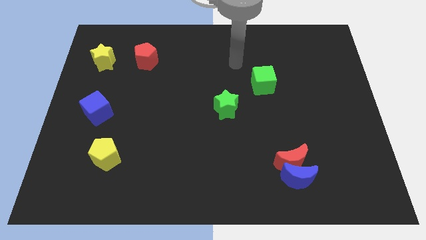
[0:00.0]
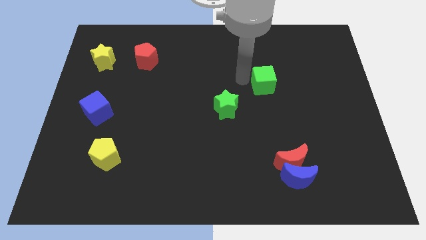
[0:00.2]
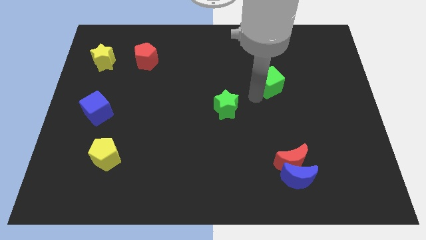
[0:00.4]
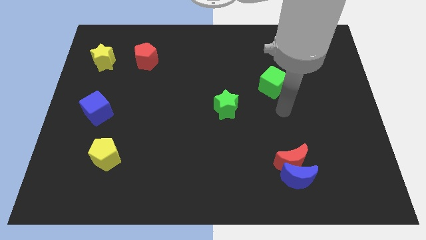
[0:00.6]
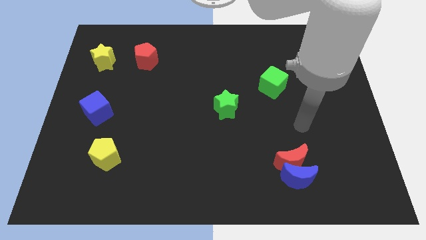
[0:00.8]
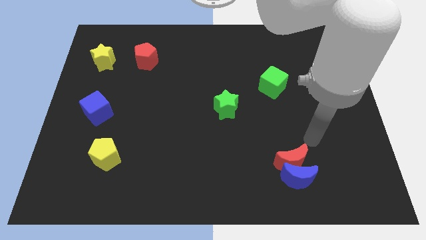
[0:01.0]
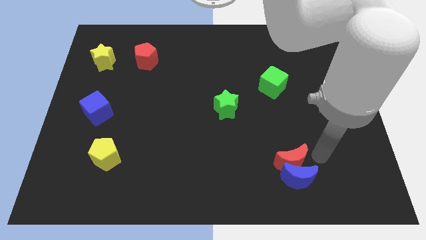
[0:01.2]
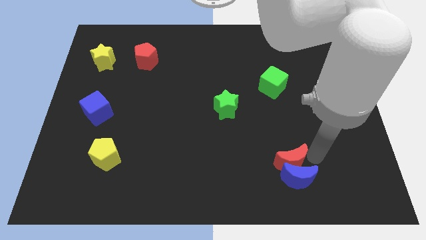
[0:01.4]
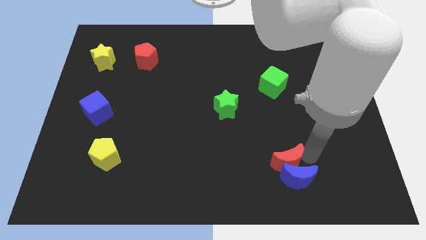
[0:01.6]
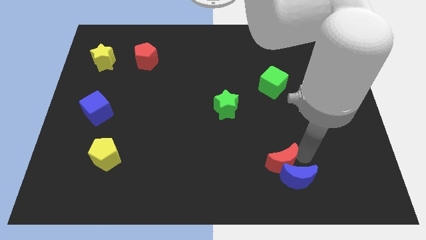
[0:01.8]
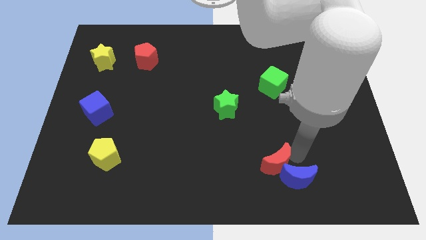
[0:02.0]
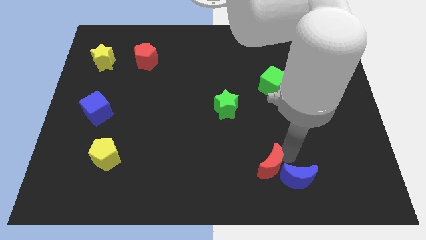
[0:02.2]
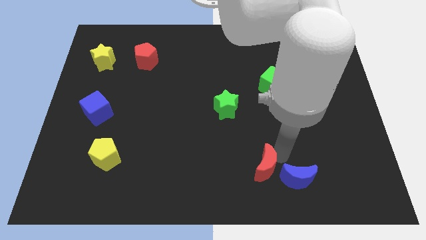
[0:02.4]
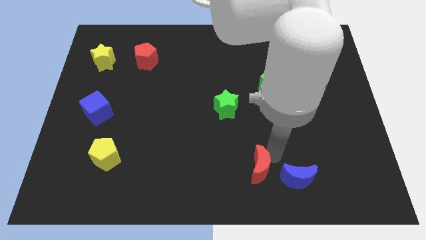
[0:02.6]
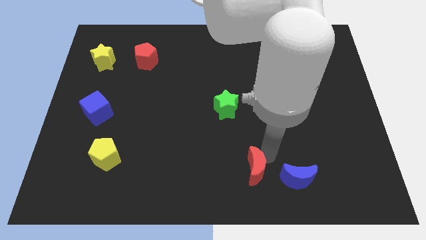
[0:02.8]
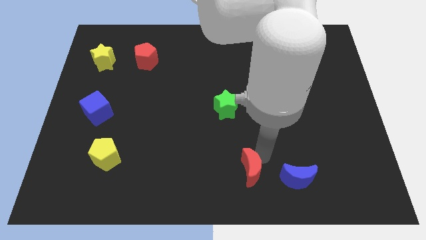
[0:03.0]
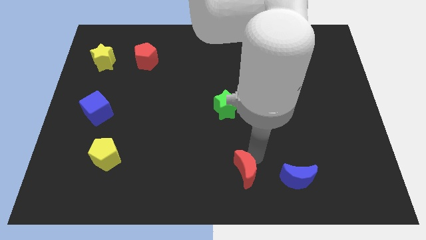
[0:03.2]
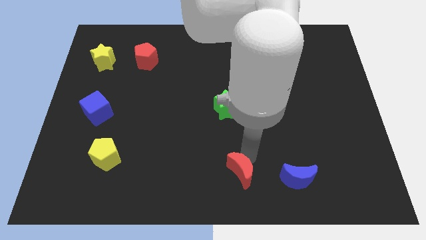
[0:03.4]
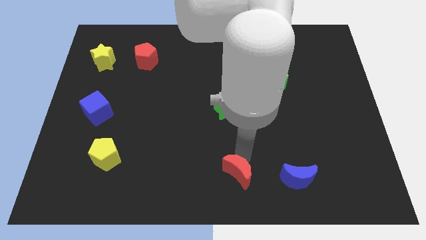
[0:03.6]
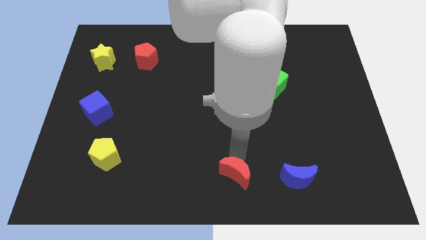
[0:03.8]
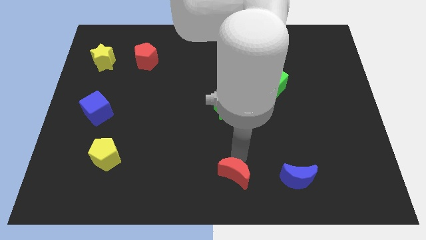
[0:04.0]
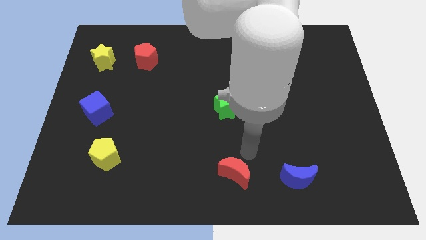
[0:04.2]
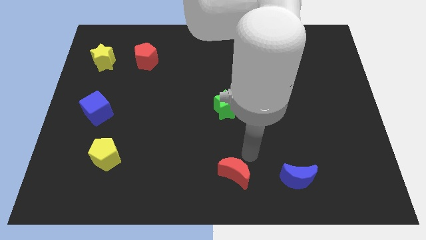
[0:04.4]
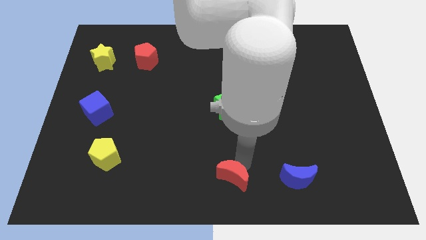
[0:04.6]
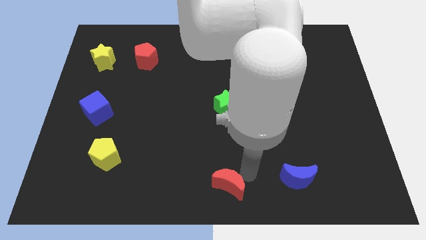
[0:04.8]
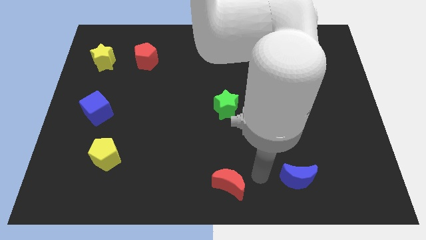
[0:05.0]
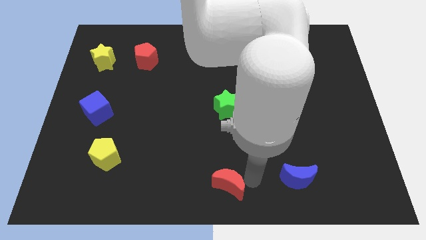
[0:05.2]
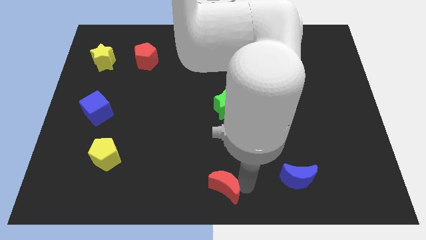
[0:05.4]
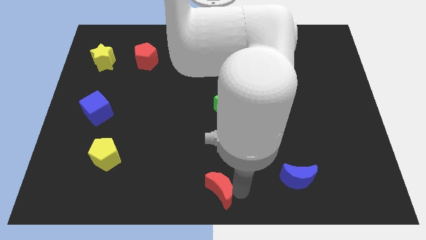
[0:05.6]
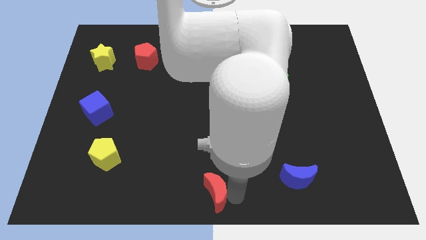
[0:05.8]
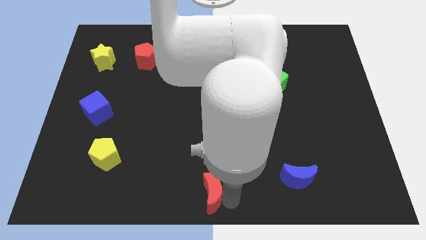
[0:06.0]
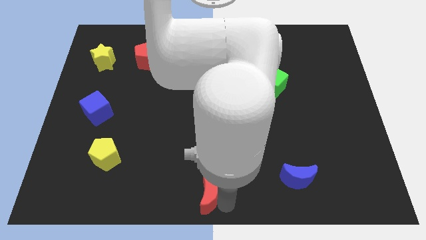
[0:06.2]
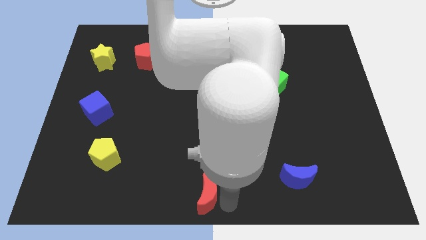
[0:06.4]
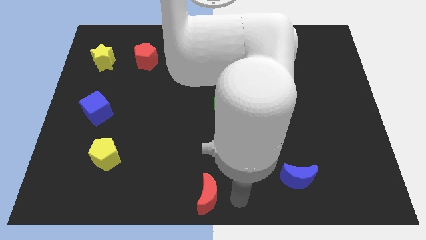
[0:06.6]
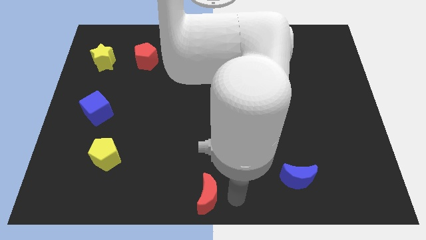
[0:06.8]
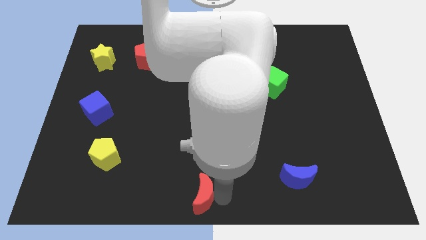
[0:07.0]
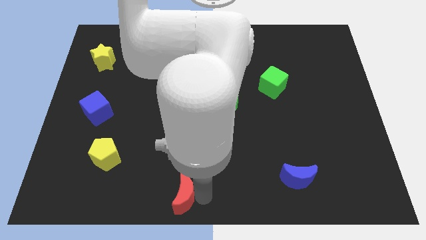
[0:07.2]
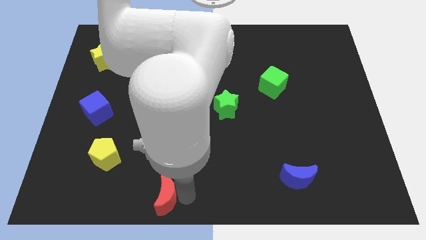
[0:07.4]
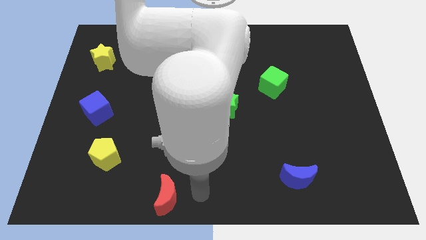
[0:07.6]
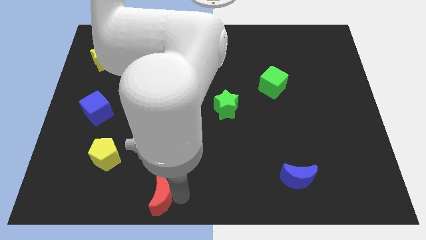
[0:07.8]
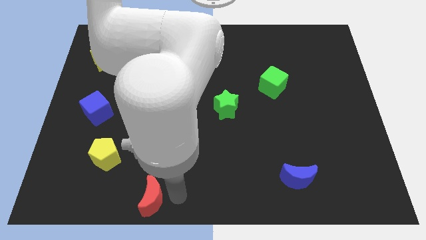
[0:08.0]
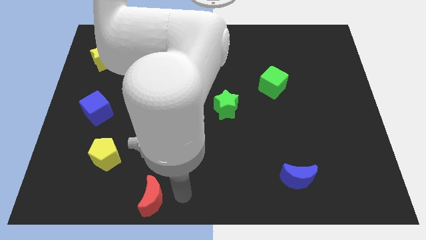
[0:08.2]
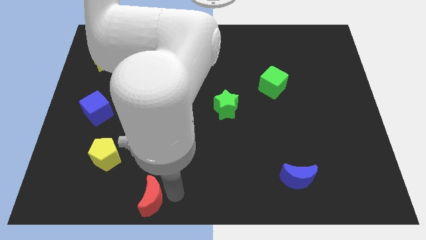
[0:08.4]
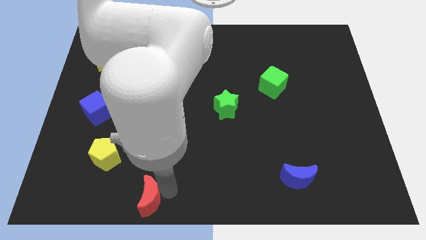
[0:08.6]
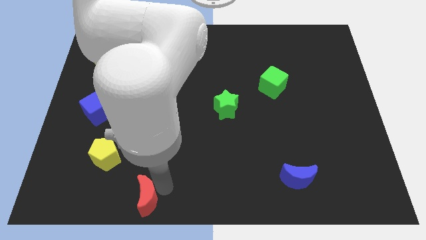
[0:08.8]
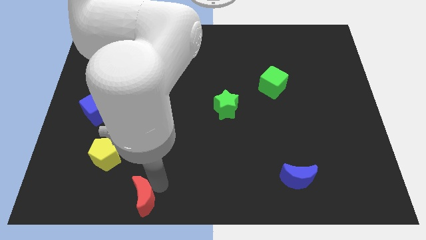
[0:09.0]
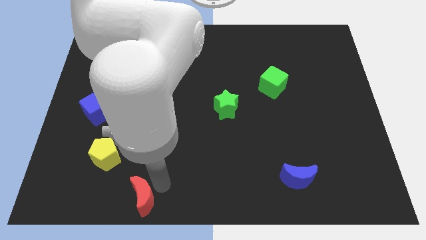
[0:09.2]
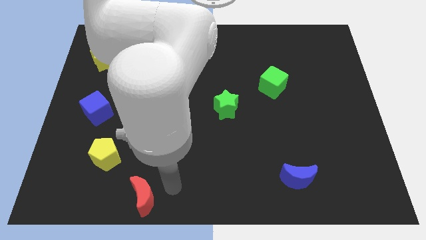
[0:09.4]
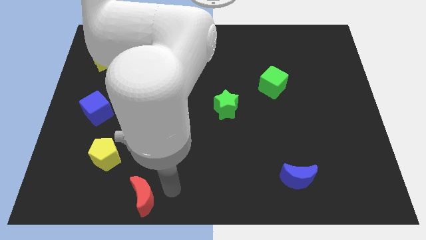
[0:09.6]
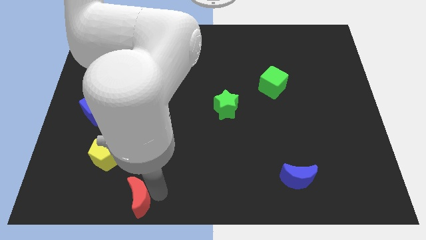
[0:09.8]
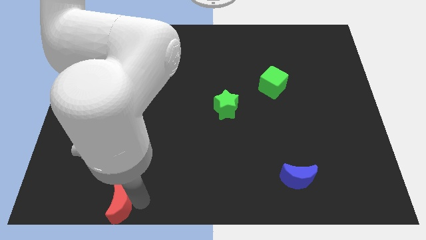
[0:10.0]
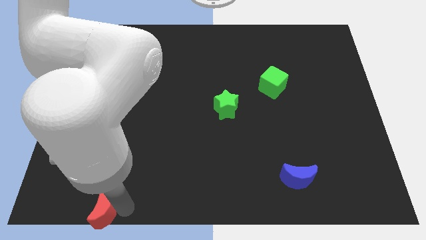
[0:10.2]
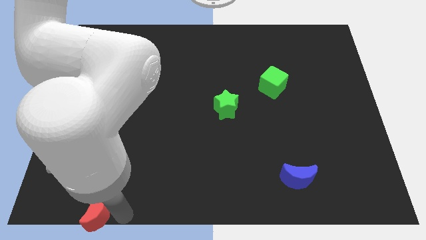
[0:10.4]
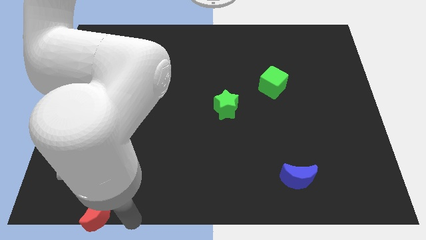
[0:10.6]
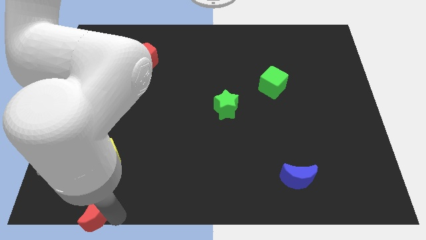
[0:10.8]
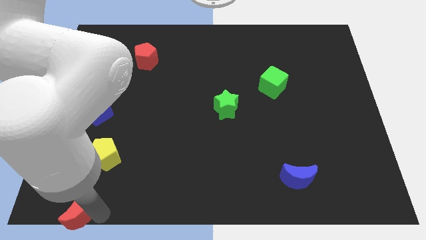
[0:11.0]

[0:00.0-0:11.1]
push the red moon to the bottom left corner
